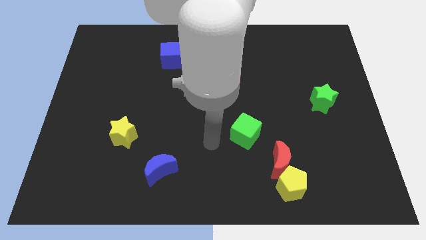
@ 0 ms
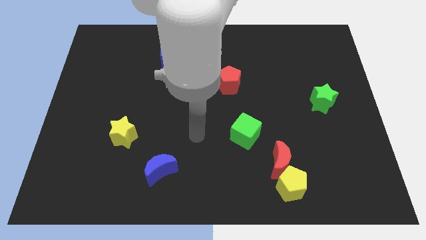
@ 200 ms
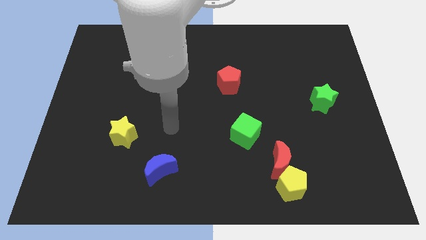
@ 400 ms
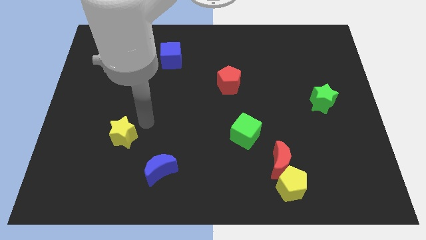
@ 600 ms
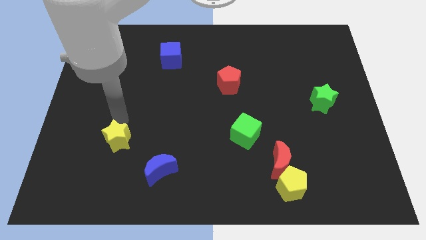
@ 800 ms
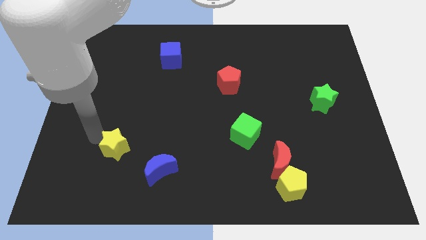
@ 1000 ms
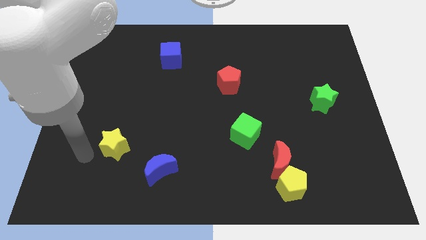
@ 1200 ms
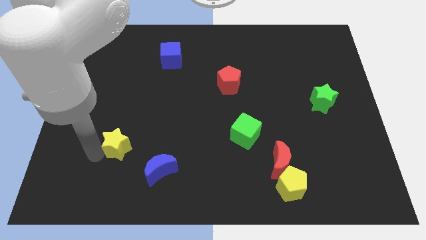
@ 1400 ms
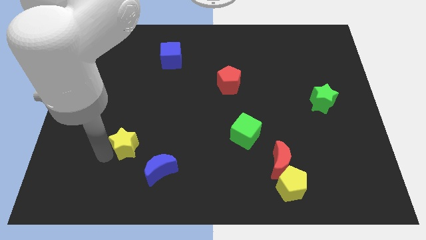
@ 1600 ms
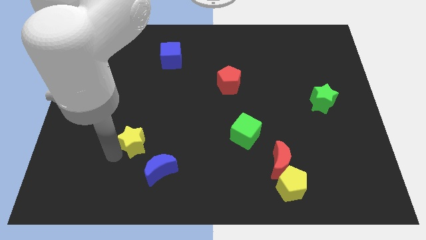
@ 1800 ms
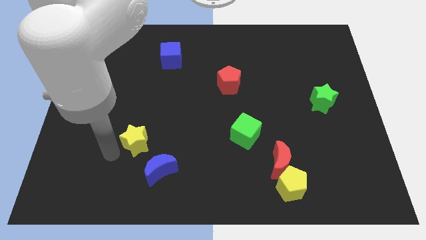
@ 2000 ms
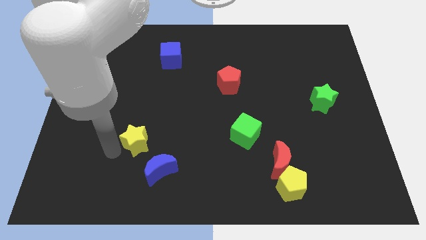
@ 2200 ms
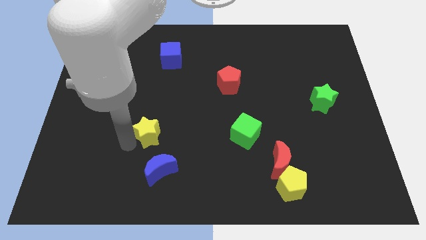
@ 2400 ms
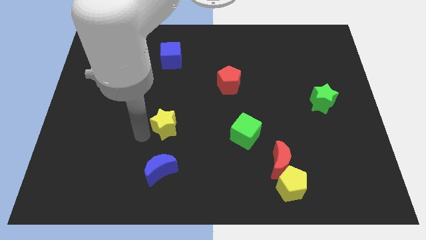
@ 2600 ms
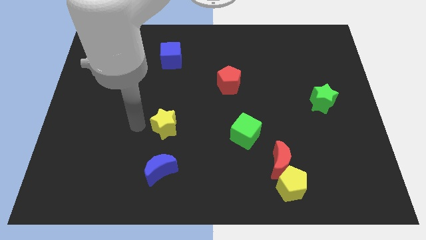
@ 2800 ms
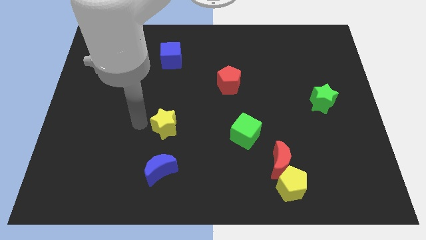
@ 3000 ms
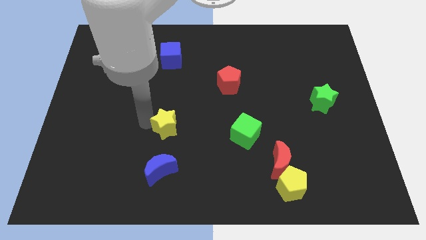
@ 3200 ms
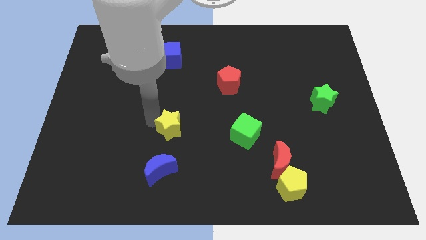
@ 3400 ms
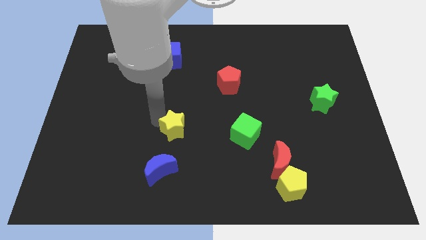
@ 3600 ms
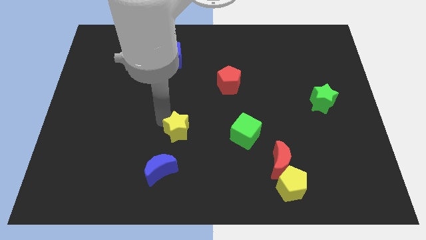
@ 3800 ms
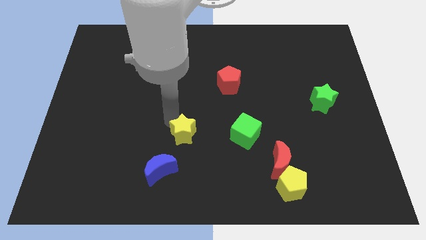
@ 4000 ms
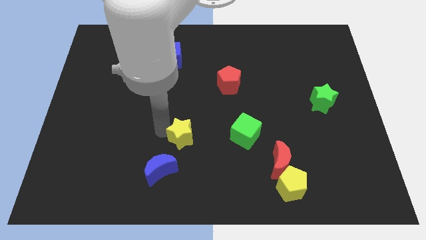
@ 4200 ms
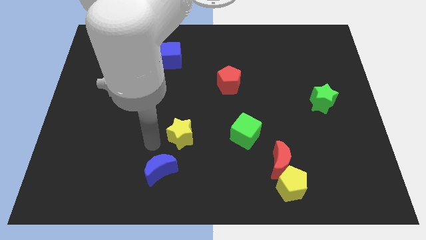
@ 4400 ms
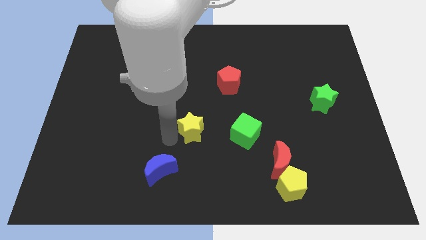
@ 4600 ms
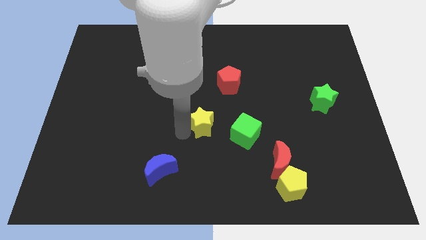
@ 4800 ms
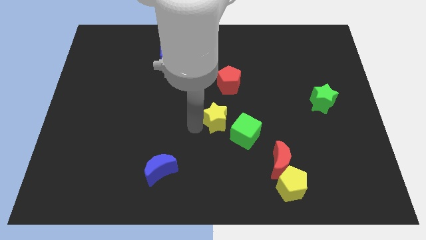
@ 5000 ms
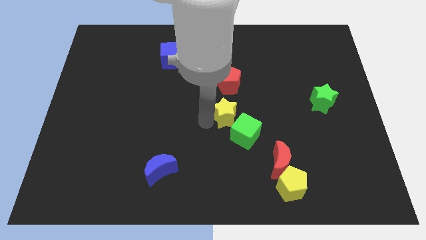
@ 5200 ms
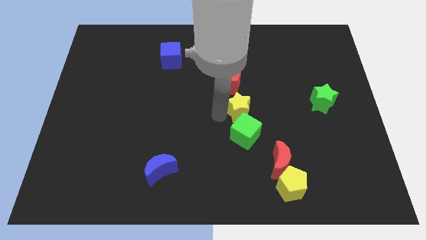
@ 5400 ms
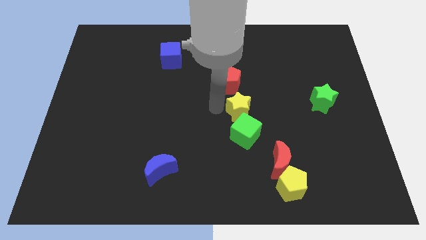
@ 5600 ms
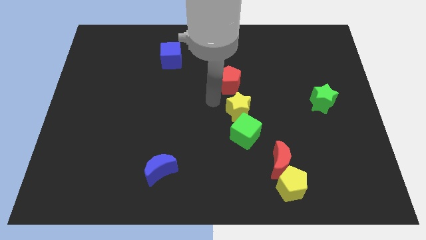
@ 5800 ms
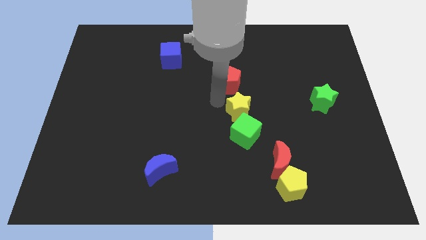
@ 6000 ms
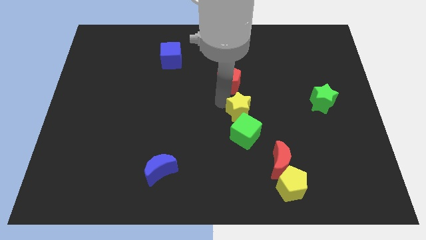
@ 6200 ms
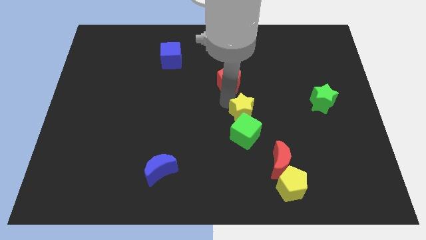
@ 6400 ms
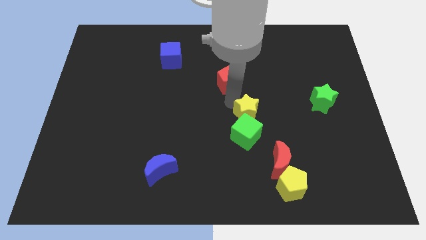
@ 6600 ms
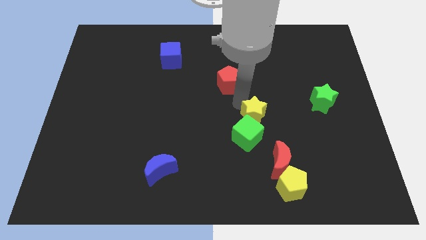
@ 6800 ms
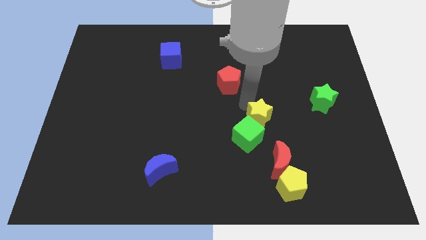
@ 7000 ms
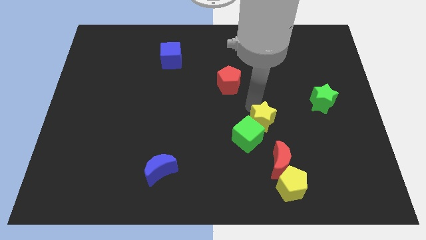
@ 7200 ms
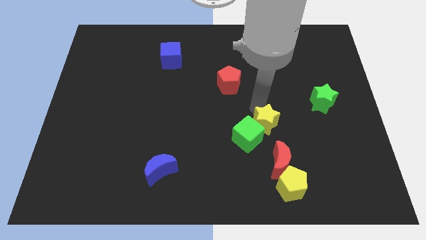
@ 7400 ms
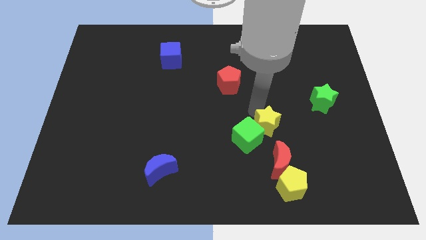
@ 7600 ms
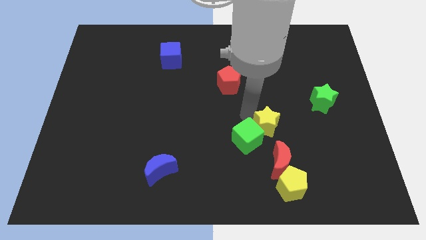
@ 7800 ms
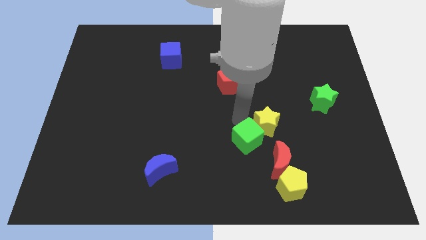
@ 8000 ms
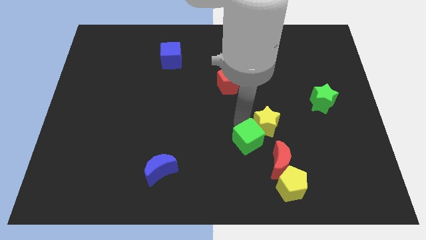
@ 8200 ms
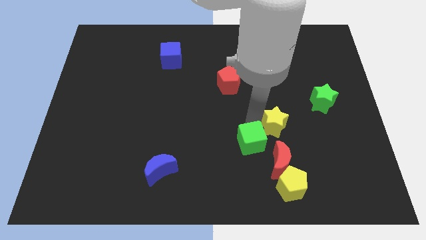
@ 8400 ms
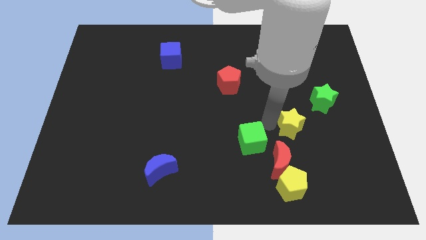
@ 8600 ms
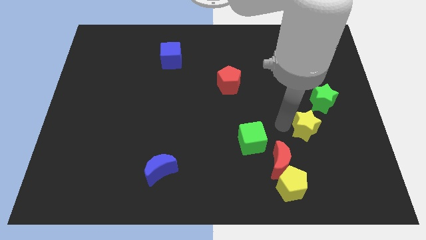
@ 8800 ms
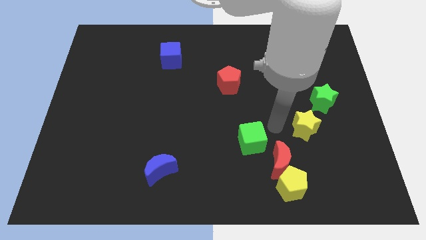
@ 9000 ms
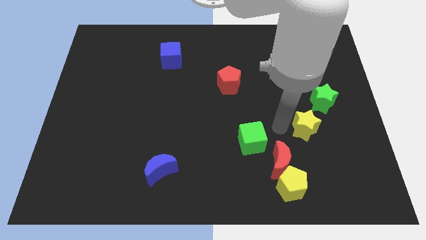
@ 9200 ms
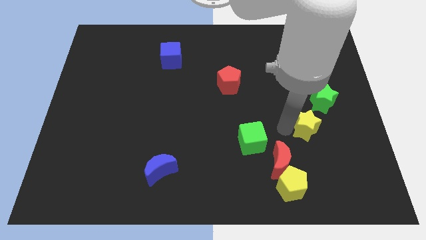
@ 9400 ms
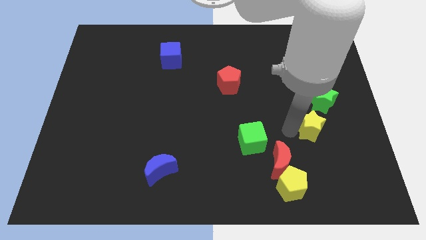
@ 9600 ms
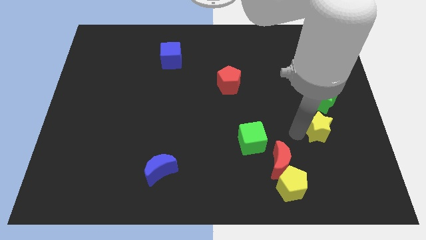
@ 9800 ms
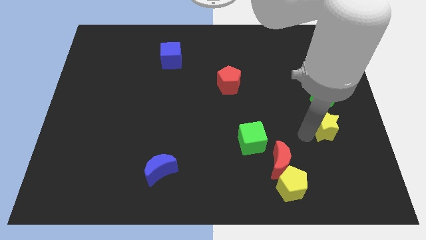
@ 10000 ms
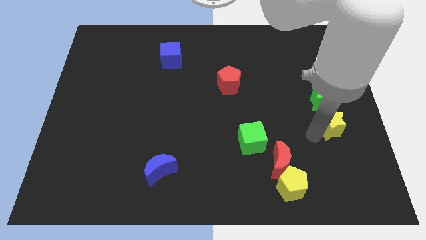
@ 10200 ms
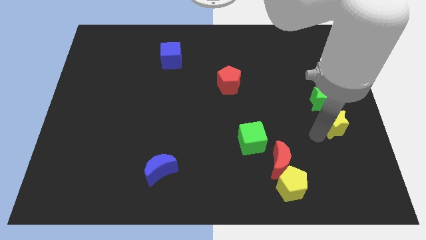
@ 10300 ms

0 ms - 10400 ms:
put the yellow star to the right side of the board

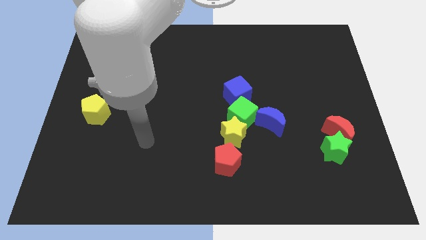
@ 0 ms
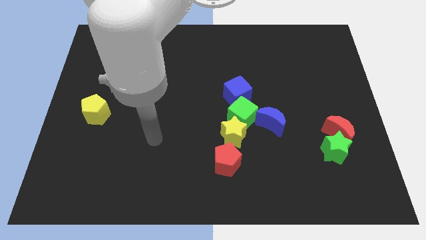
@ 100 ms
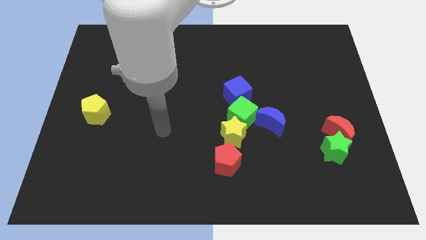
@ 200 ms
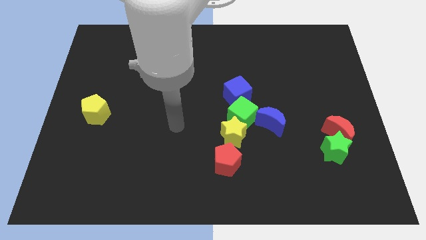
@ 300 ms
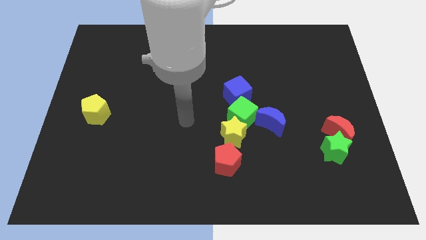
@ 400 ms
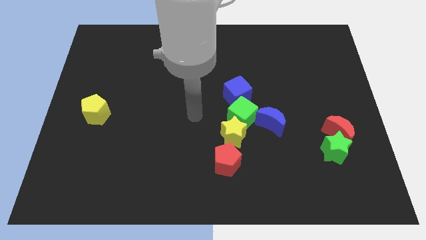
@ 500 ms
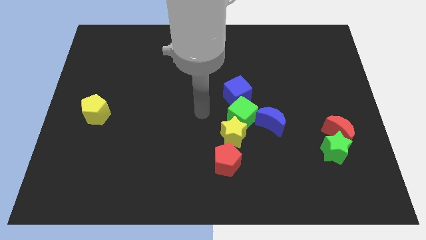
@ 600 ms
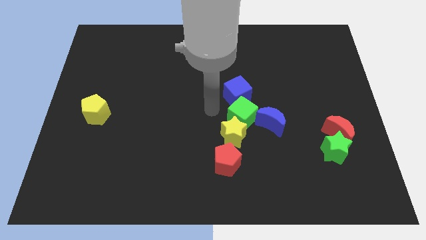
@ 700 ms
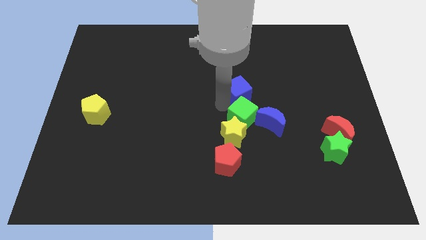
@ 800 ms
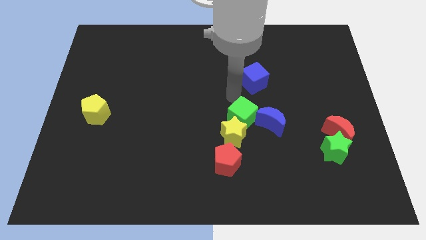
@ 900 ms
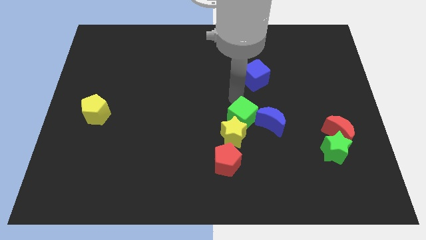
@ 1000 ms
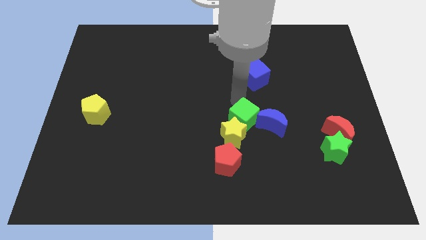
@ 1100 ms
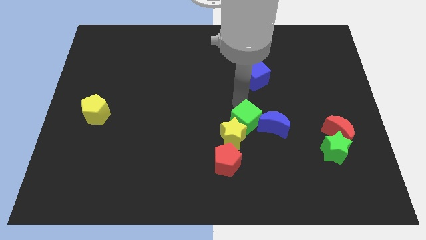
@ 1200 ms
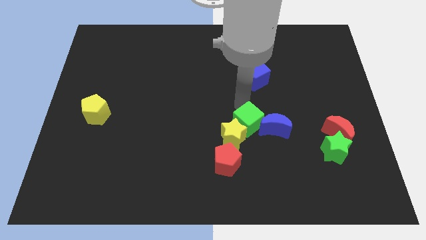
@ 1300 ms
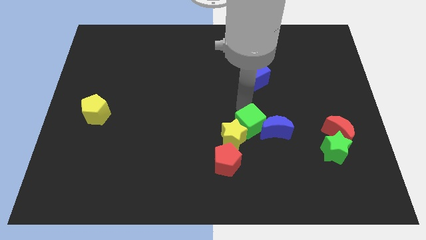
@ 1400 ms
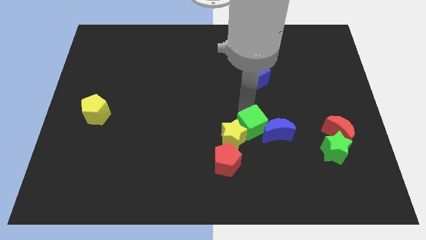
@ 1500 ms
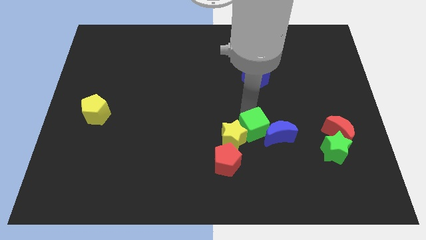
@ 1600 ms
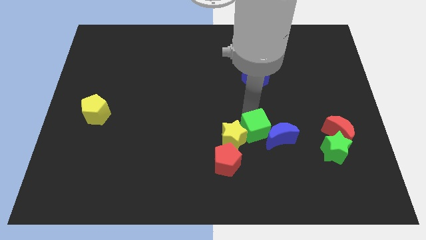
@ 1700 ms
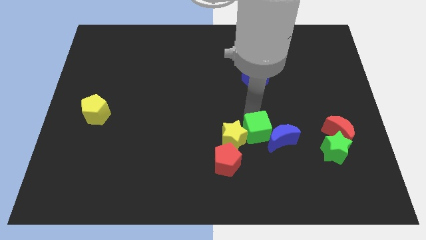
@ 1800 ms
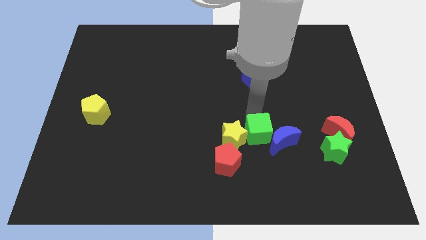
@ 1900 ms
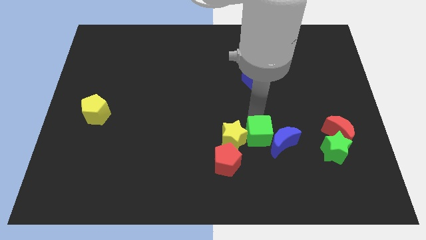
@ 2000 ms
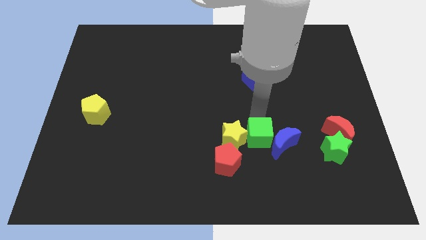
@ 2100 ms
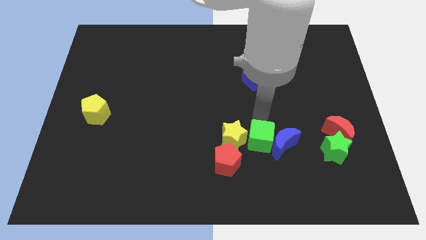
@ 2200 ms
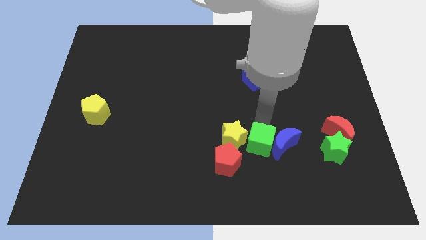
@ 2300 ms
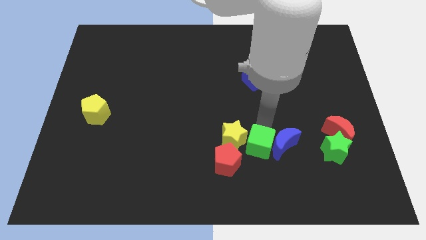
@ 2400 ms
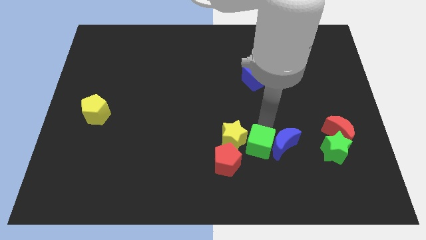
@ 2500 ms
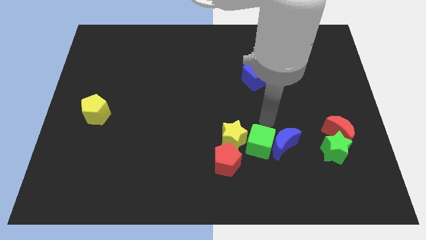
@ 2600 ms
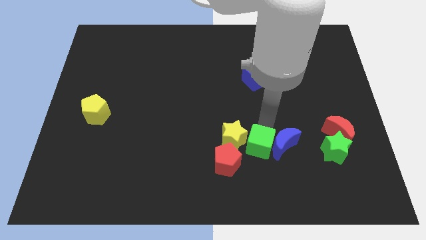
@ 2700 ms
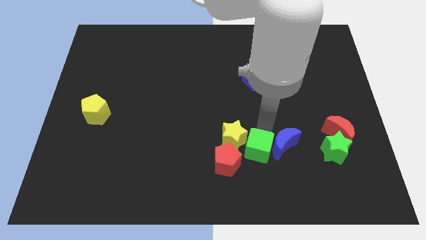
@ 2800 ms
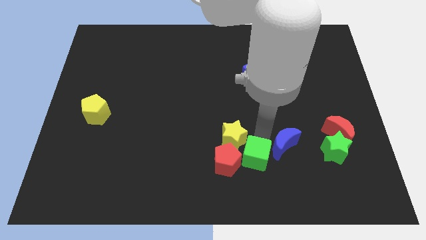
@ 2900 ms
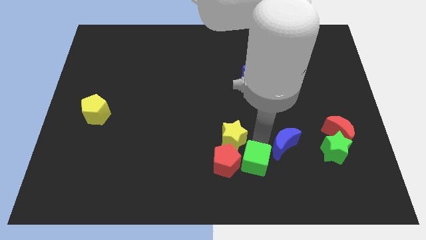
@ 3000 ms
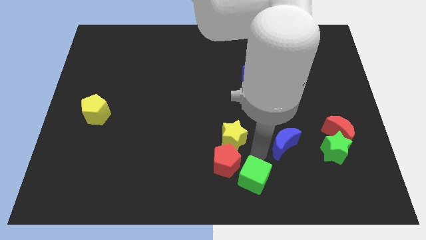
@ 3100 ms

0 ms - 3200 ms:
move the green cube to the bottom
